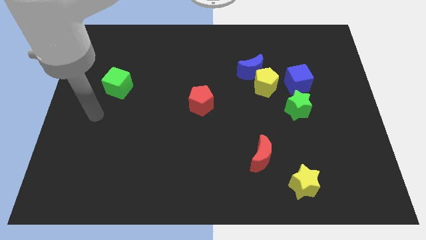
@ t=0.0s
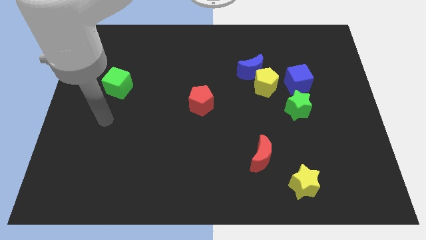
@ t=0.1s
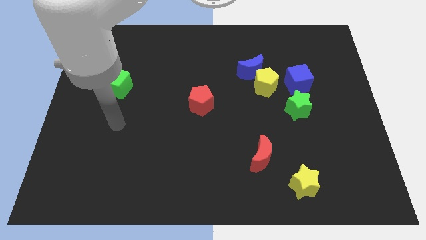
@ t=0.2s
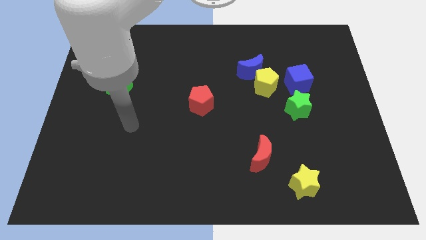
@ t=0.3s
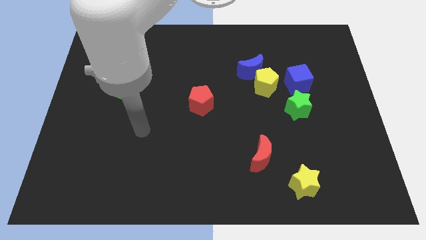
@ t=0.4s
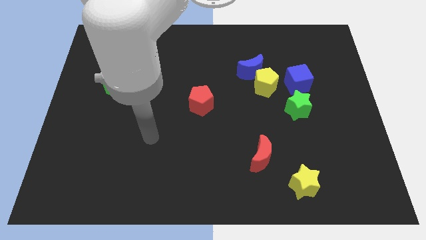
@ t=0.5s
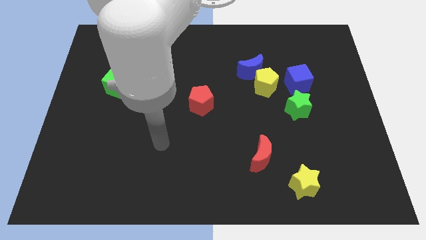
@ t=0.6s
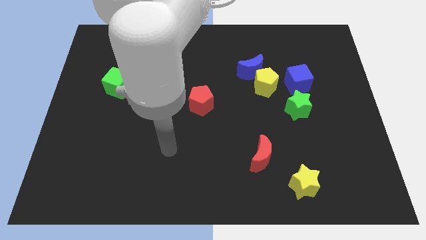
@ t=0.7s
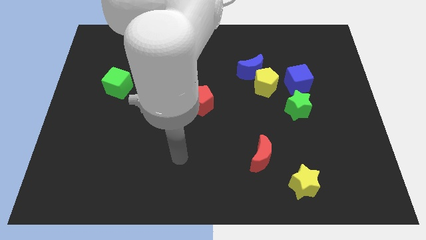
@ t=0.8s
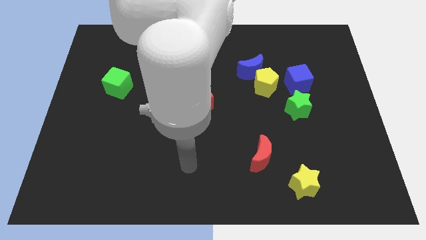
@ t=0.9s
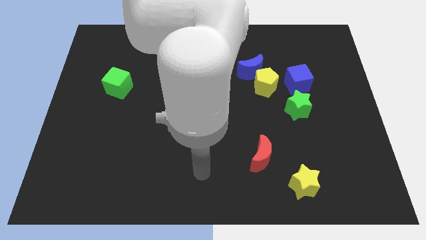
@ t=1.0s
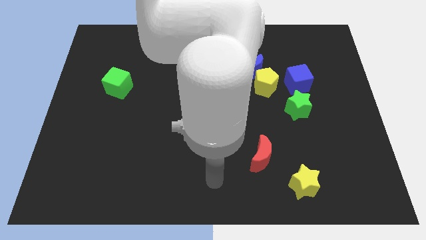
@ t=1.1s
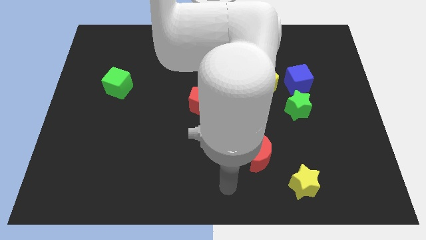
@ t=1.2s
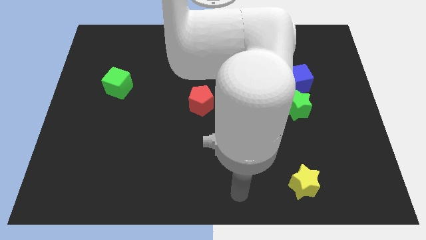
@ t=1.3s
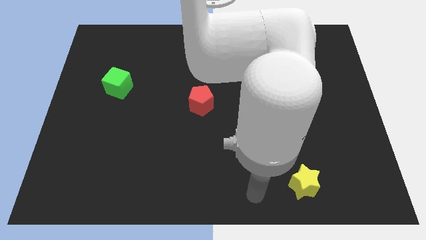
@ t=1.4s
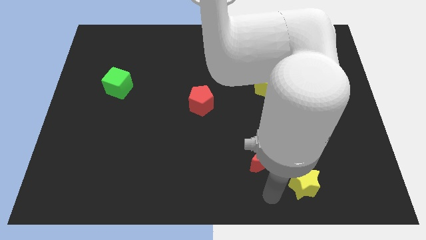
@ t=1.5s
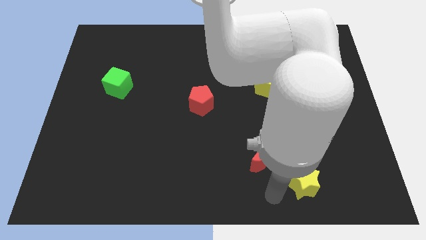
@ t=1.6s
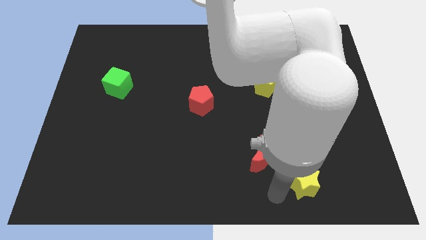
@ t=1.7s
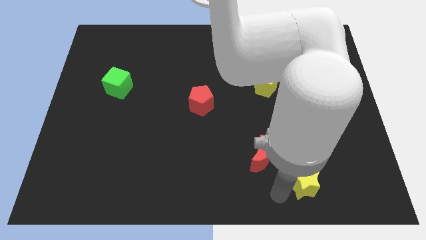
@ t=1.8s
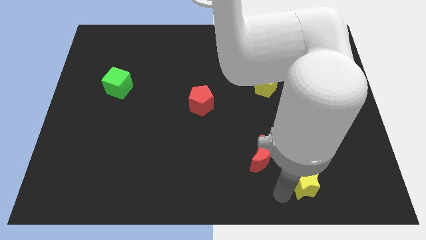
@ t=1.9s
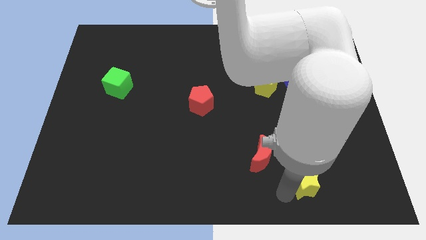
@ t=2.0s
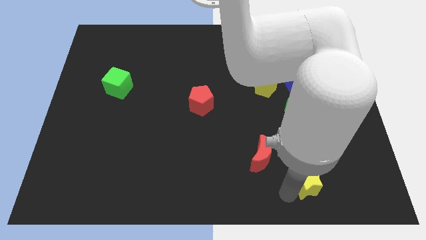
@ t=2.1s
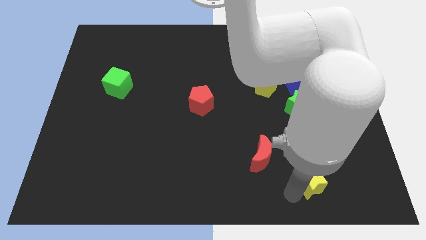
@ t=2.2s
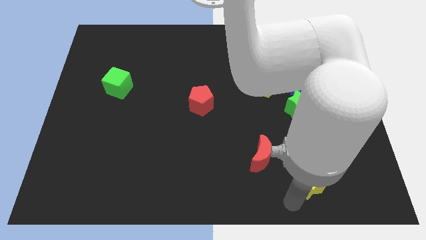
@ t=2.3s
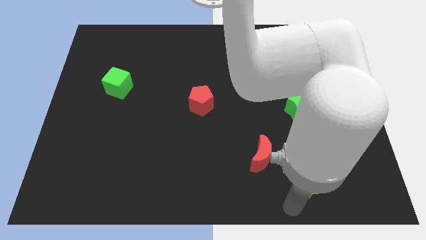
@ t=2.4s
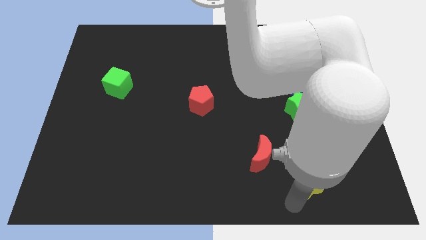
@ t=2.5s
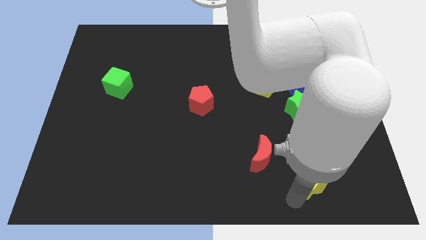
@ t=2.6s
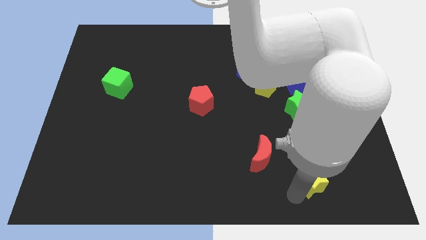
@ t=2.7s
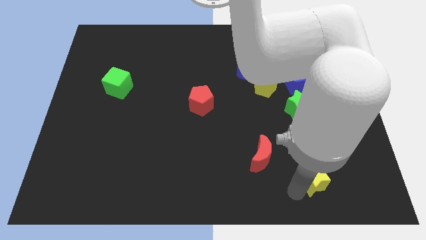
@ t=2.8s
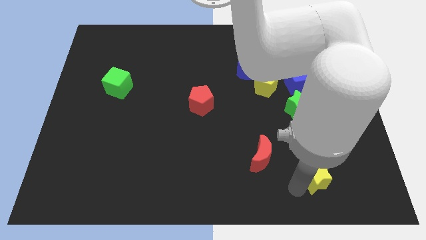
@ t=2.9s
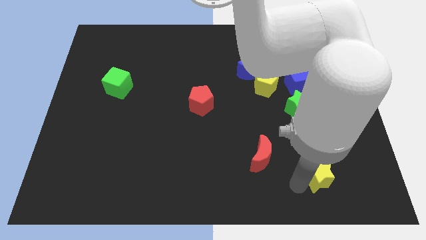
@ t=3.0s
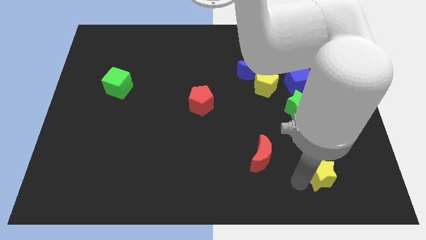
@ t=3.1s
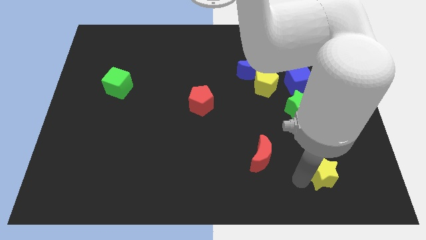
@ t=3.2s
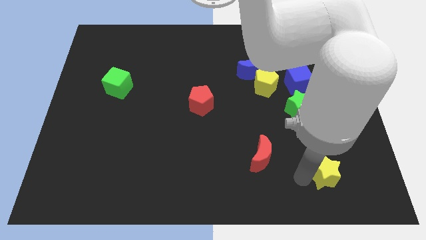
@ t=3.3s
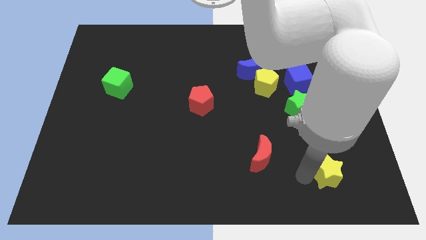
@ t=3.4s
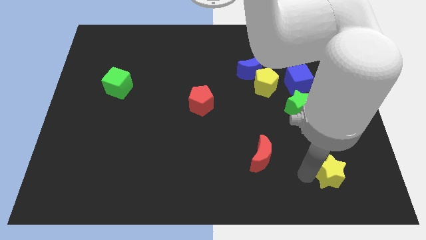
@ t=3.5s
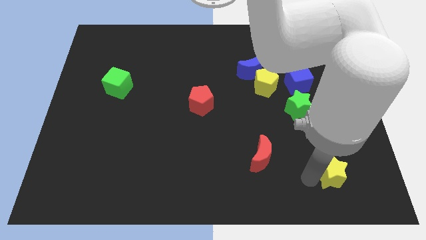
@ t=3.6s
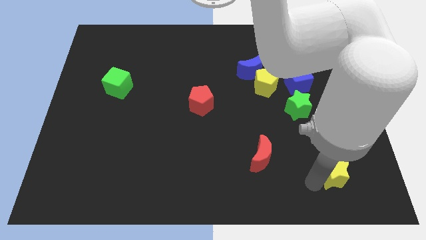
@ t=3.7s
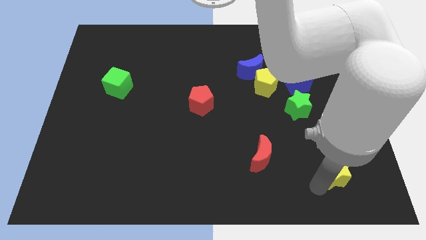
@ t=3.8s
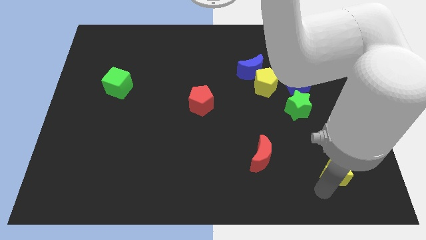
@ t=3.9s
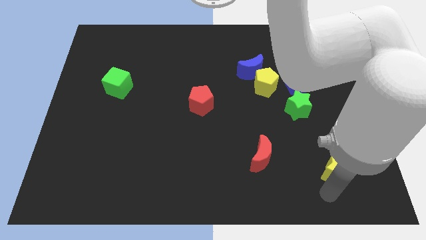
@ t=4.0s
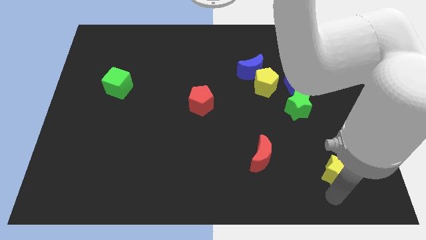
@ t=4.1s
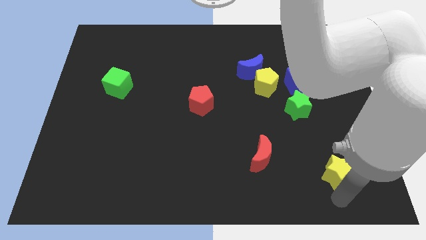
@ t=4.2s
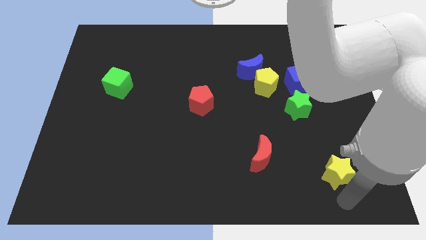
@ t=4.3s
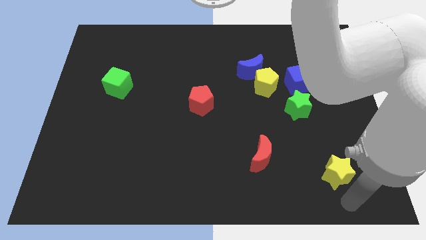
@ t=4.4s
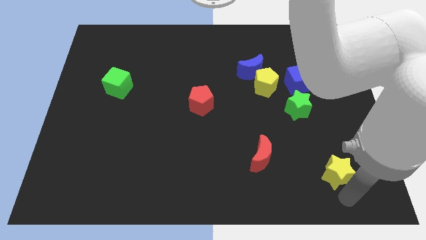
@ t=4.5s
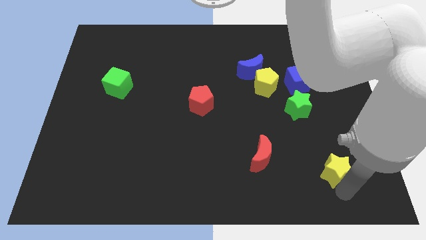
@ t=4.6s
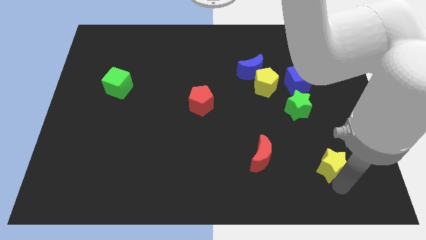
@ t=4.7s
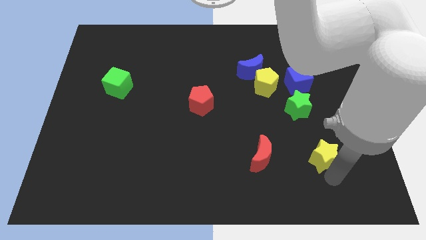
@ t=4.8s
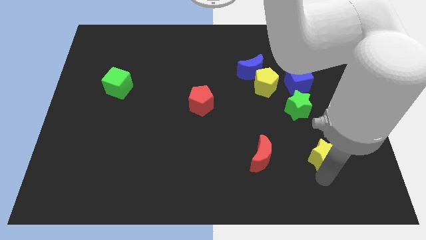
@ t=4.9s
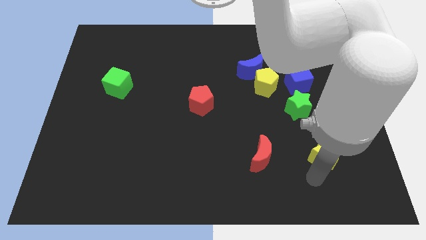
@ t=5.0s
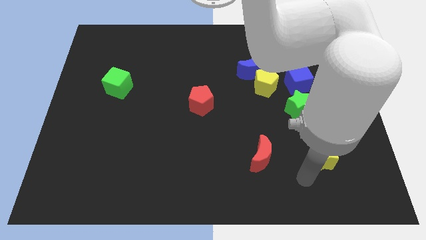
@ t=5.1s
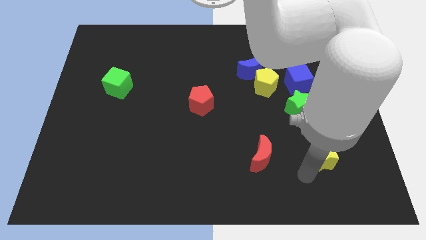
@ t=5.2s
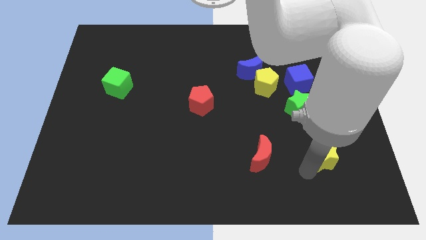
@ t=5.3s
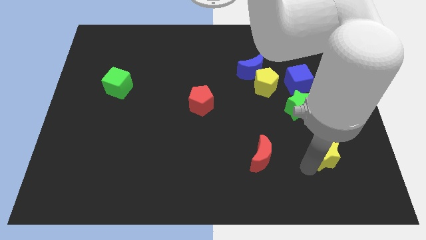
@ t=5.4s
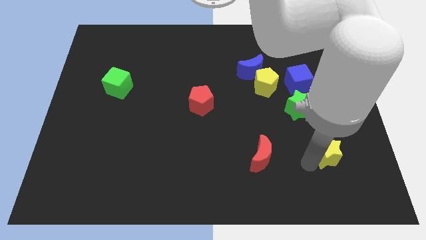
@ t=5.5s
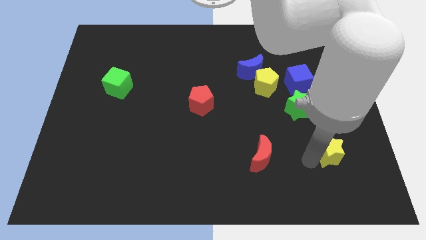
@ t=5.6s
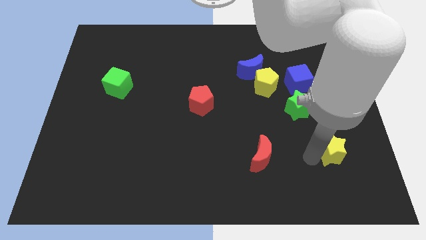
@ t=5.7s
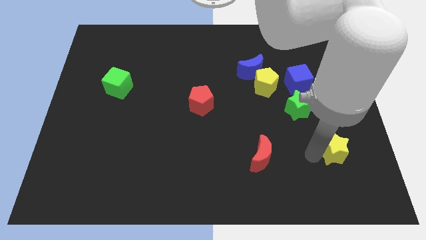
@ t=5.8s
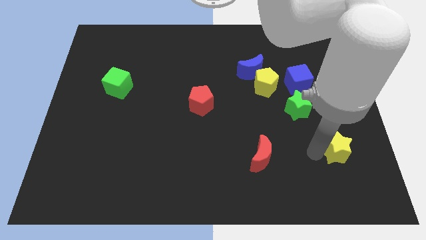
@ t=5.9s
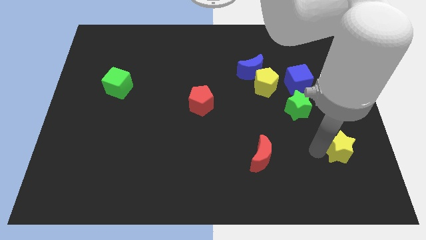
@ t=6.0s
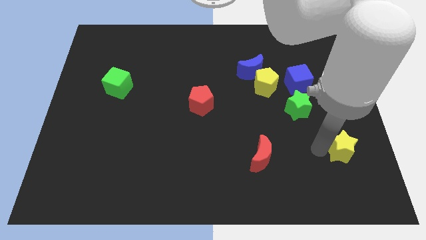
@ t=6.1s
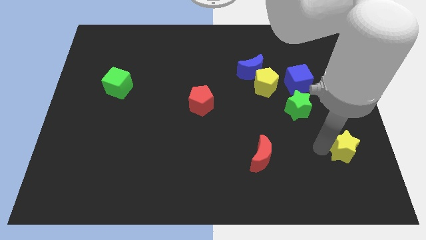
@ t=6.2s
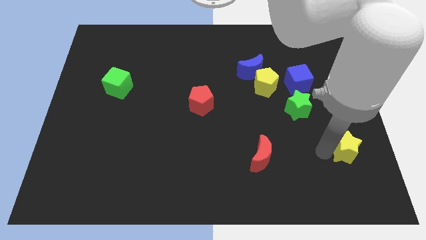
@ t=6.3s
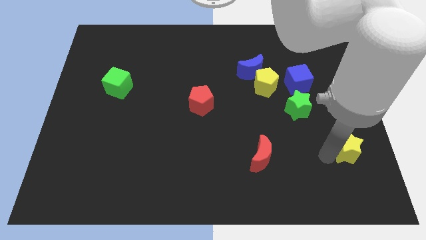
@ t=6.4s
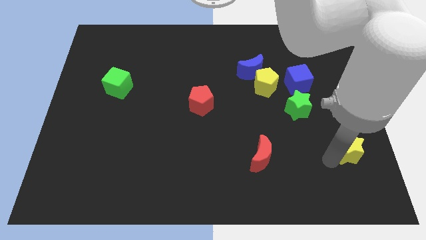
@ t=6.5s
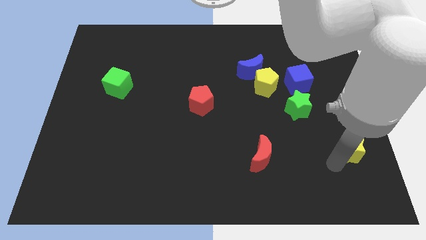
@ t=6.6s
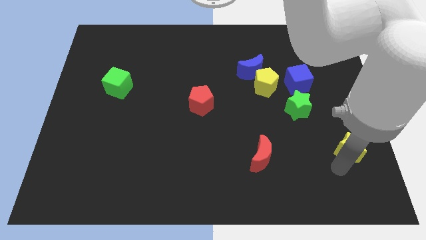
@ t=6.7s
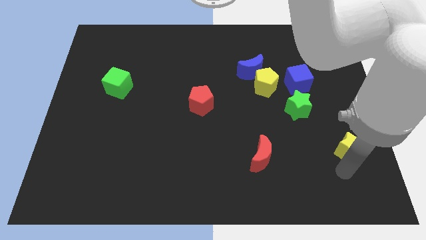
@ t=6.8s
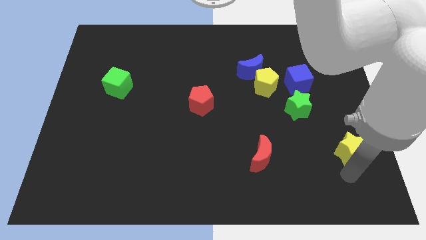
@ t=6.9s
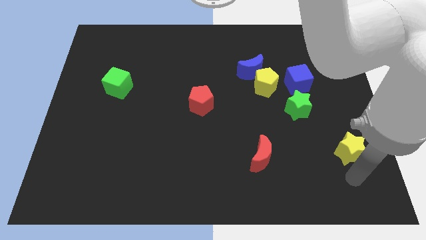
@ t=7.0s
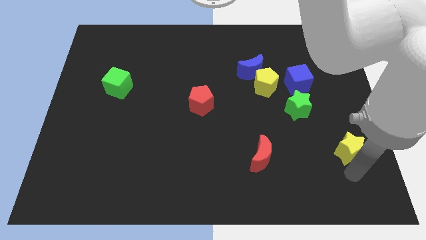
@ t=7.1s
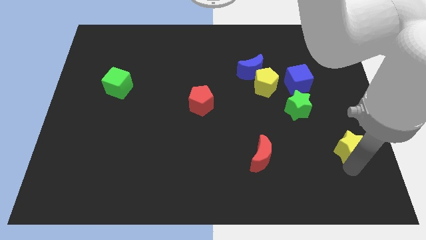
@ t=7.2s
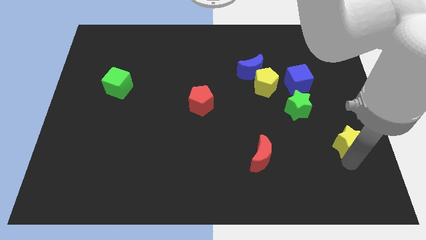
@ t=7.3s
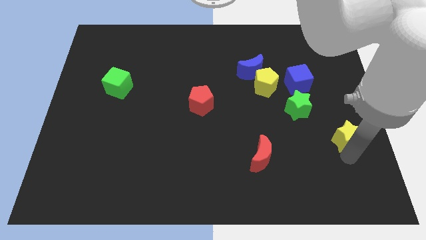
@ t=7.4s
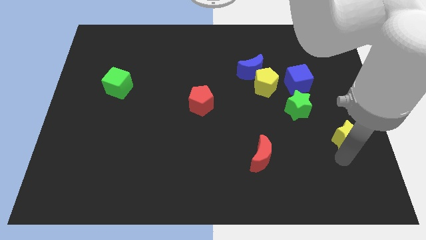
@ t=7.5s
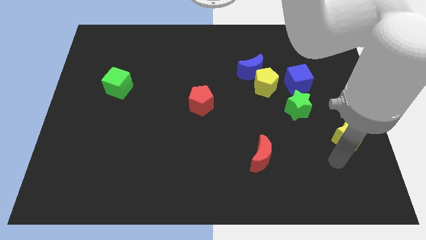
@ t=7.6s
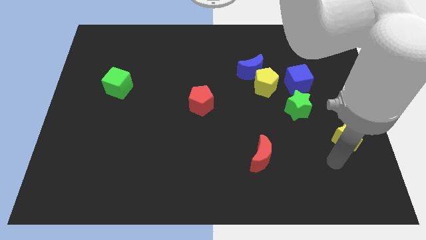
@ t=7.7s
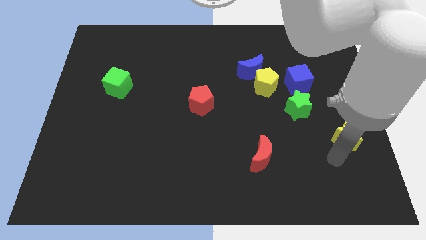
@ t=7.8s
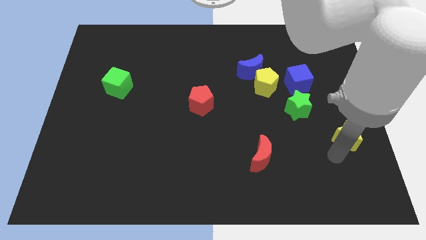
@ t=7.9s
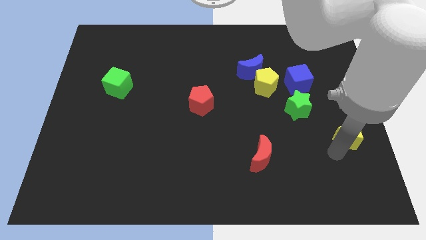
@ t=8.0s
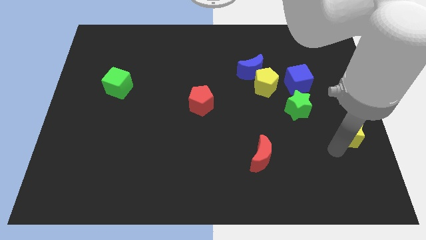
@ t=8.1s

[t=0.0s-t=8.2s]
move the yellow star to the center right
